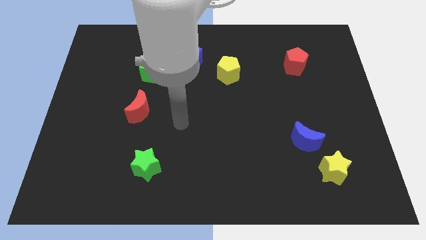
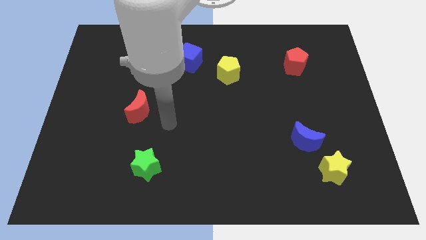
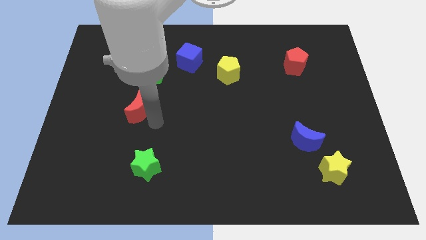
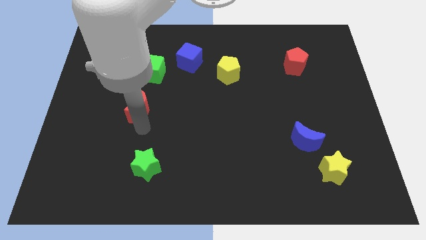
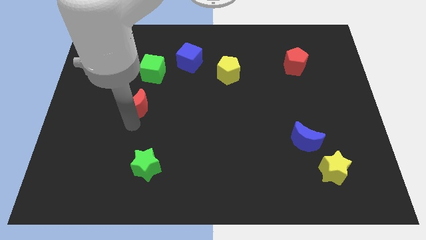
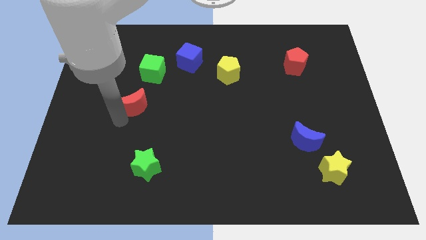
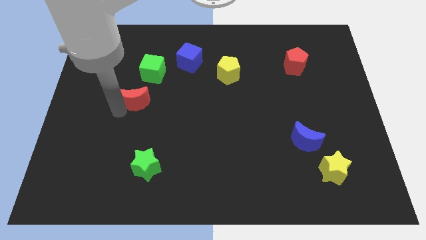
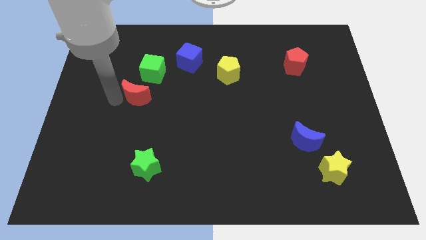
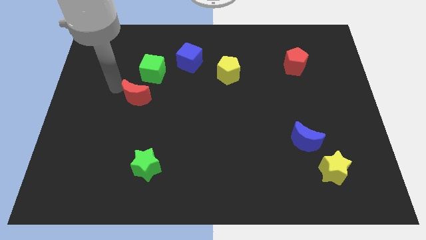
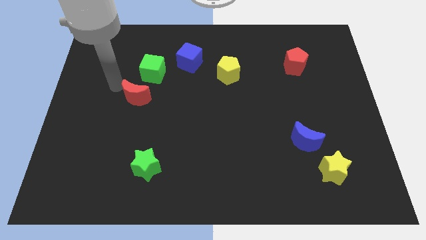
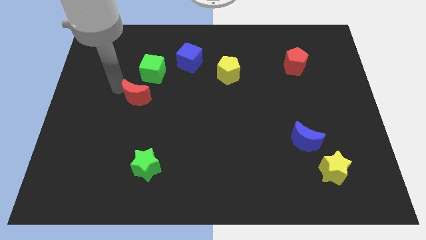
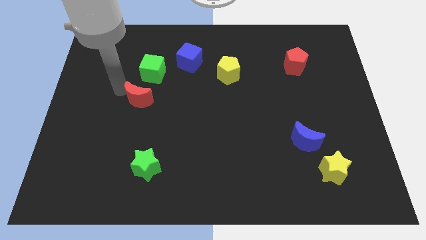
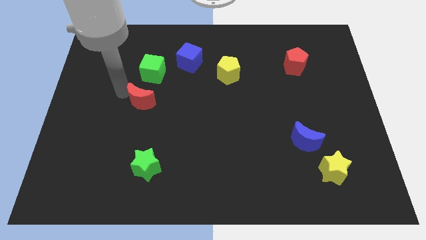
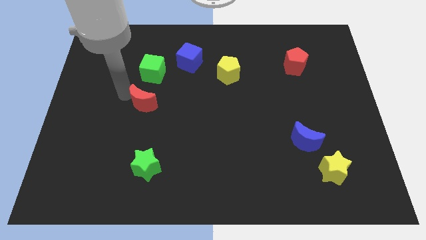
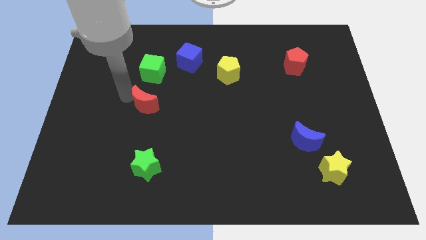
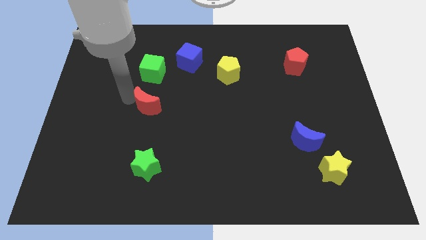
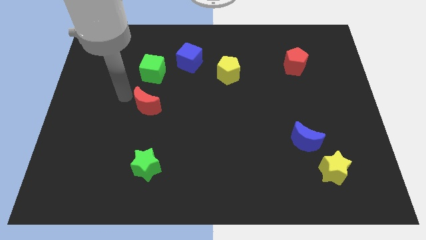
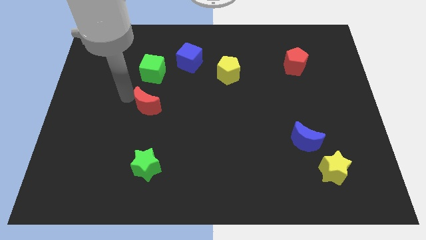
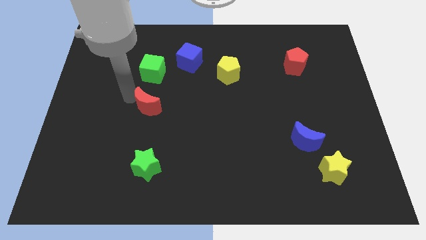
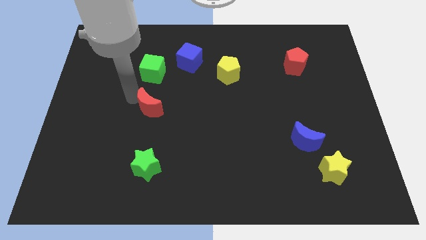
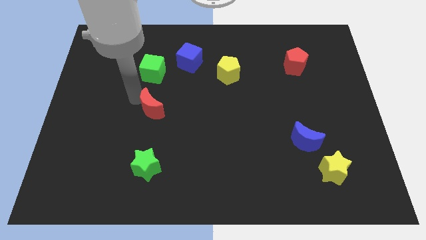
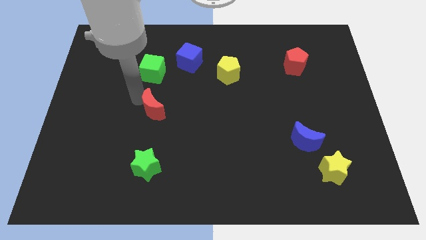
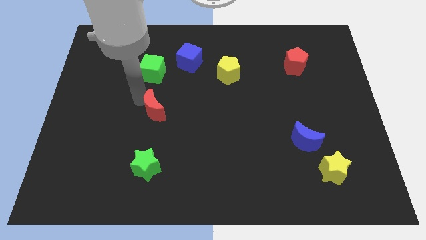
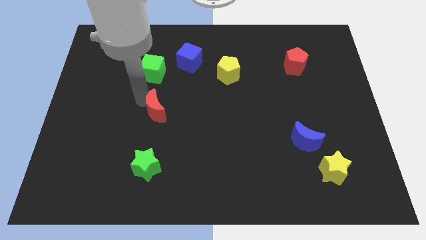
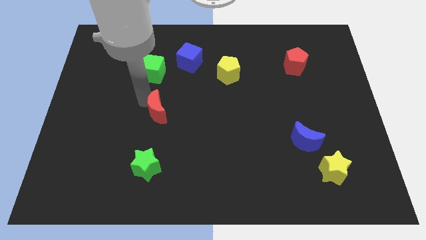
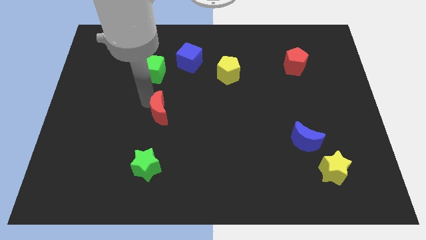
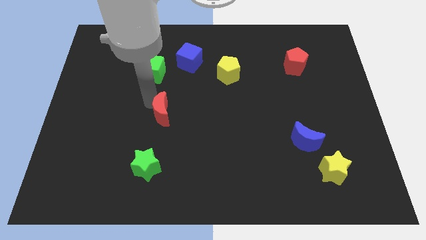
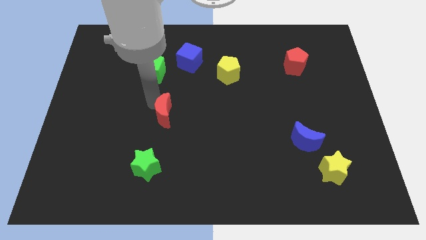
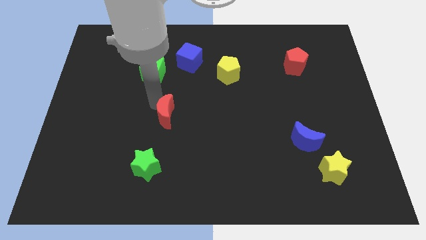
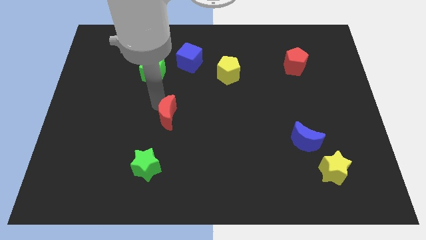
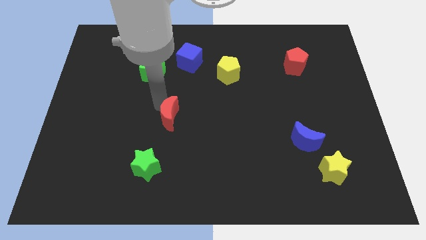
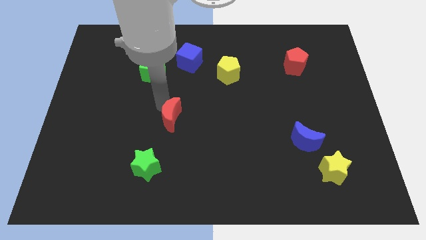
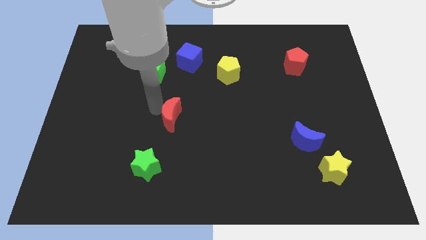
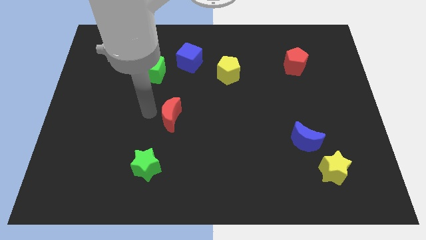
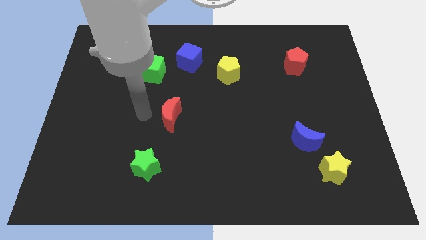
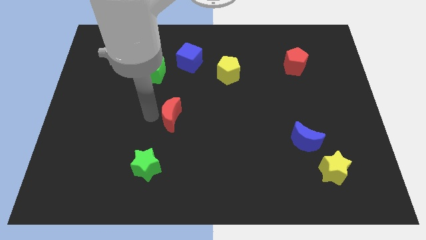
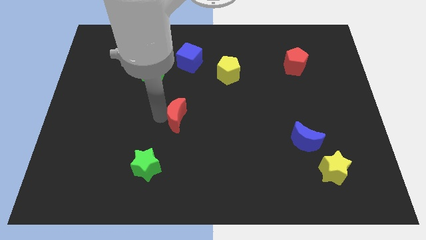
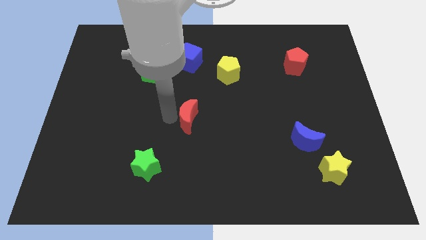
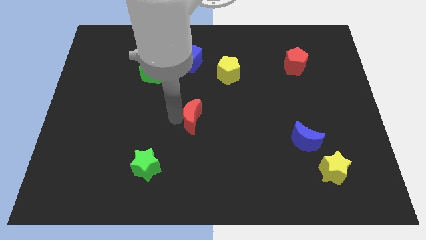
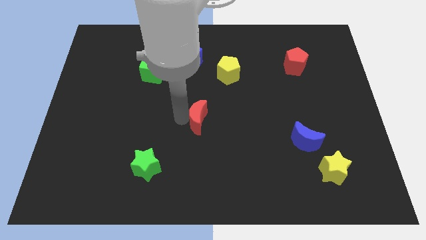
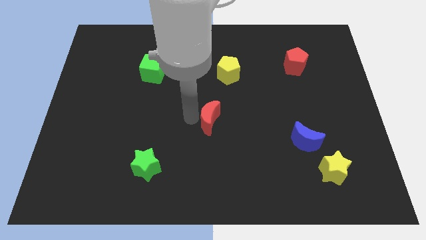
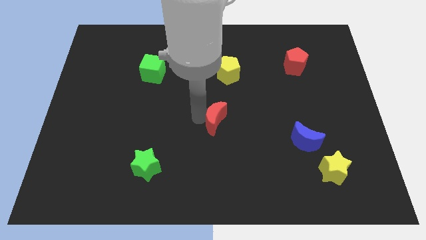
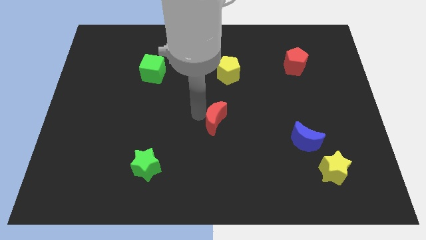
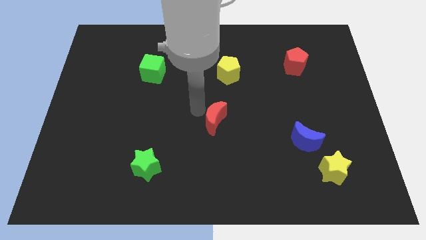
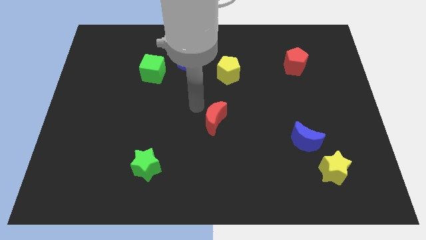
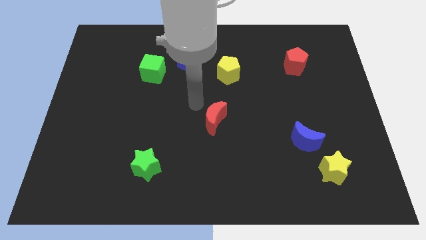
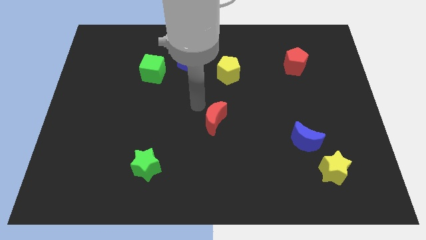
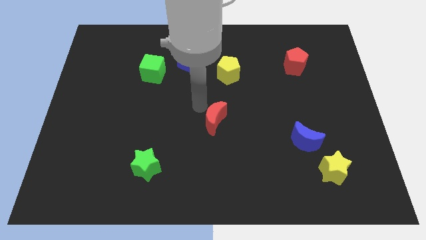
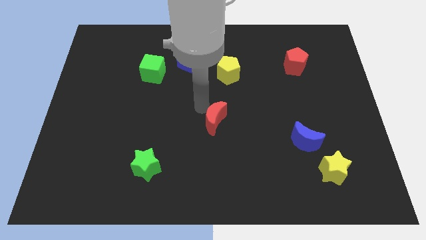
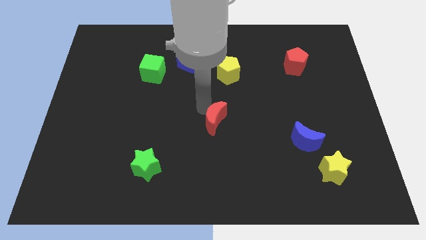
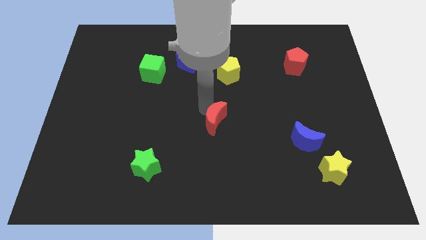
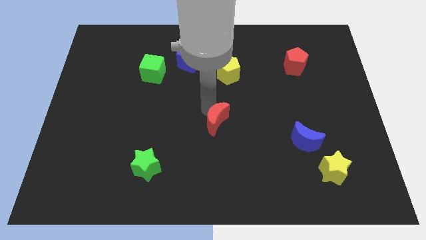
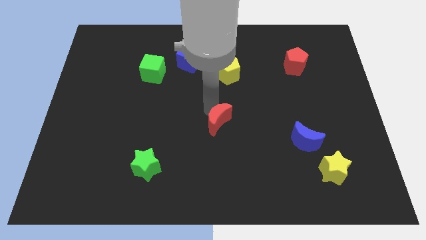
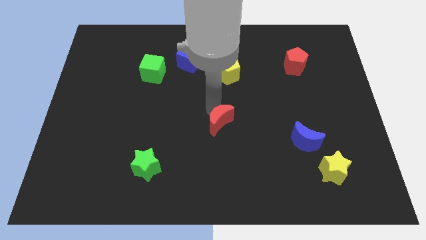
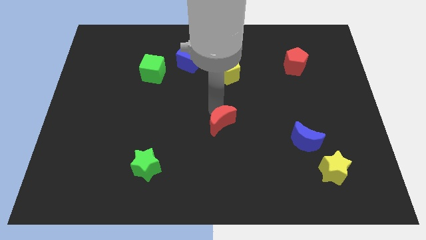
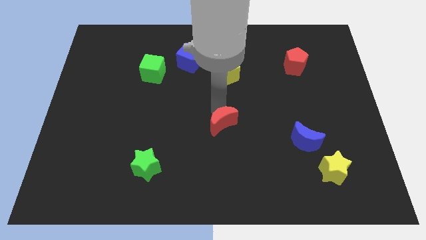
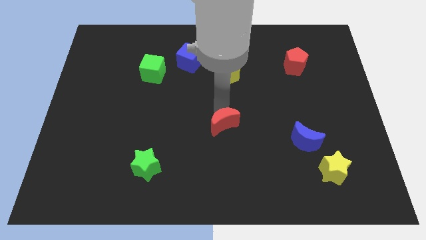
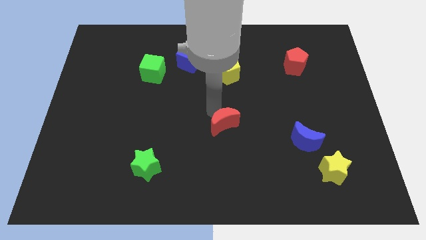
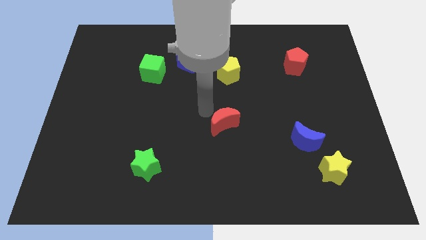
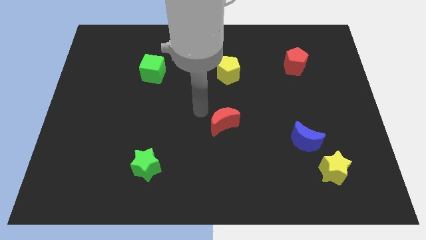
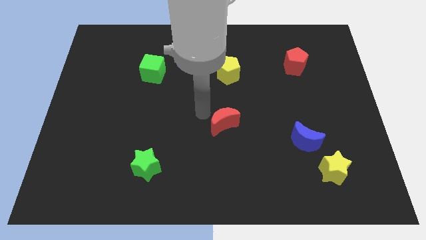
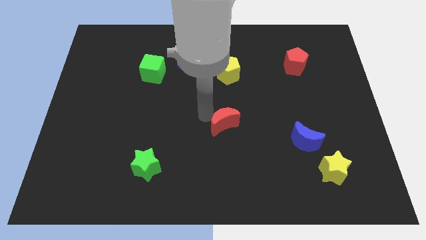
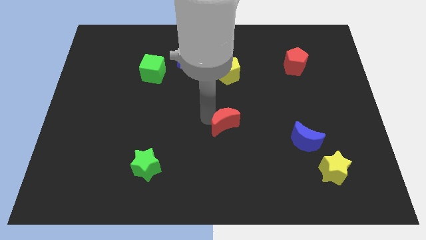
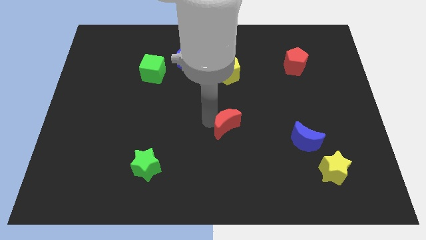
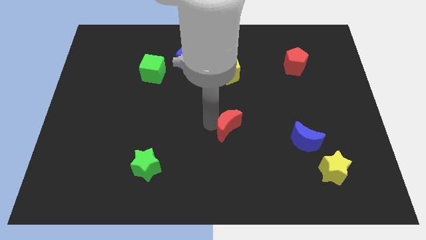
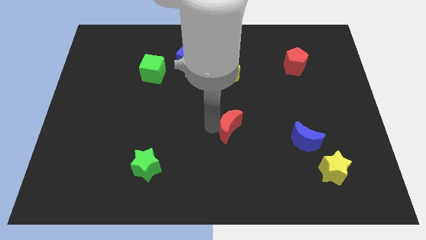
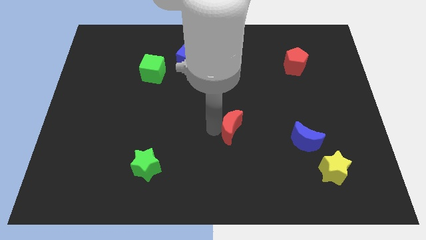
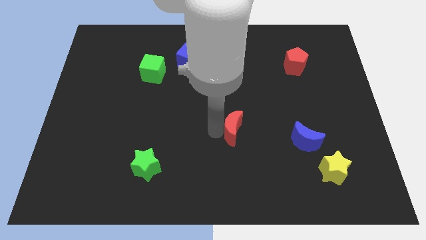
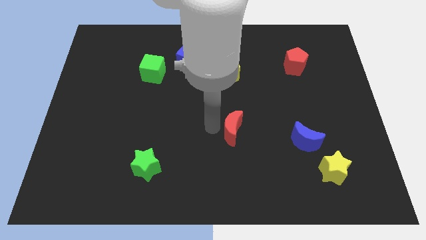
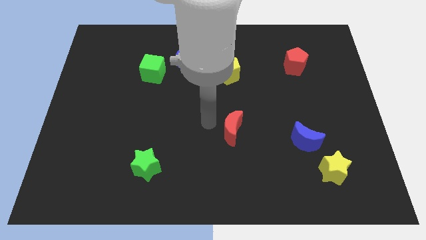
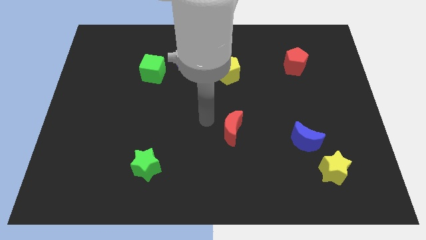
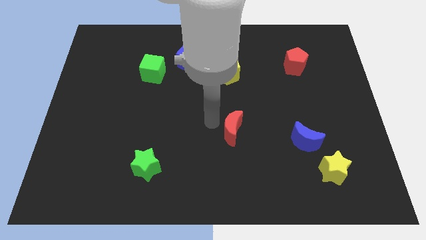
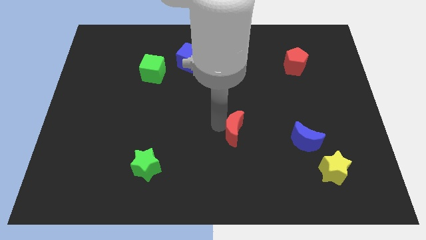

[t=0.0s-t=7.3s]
slide the red moon just left of the blue moon
